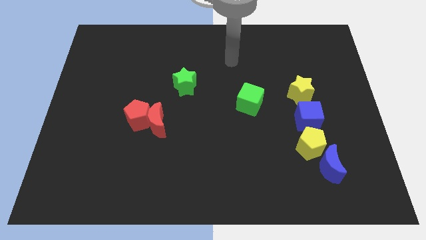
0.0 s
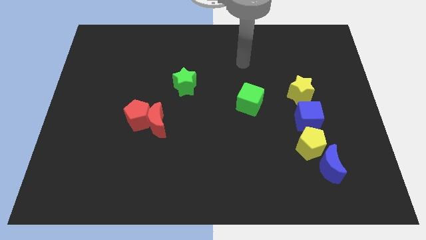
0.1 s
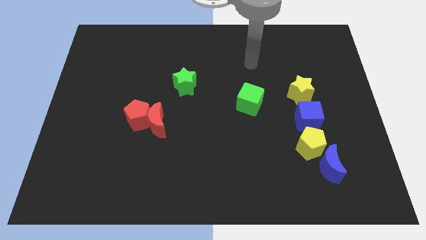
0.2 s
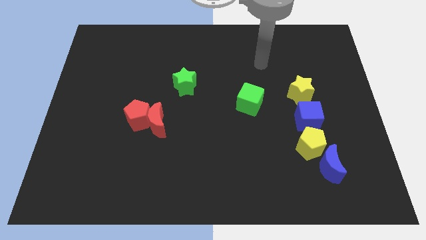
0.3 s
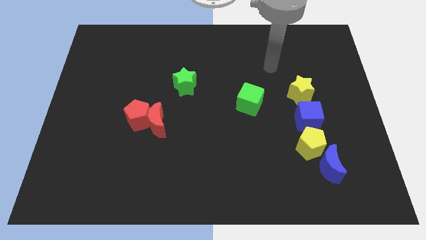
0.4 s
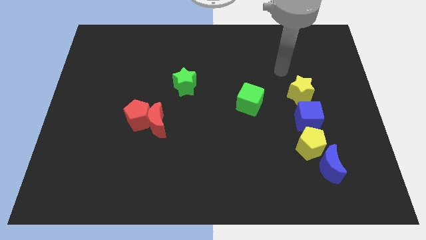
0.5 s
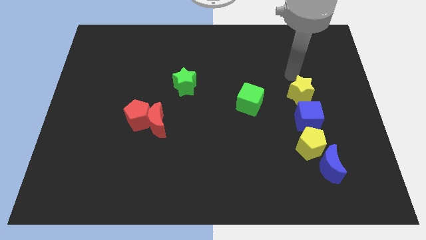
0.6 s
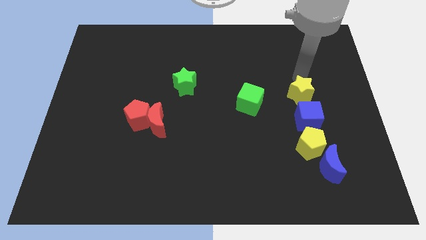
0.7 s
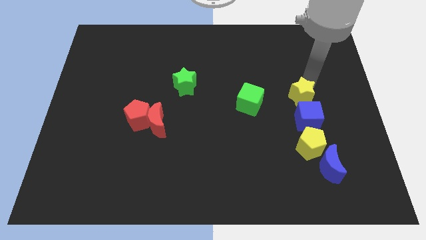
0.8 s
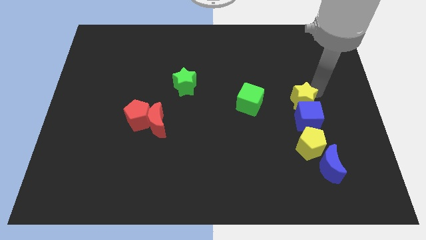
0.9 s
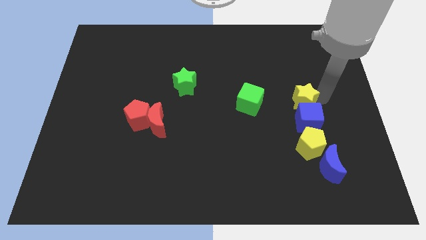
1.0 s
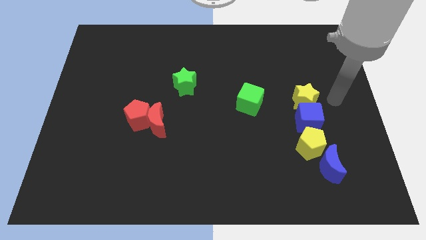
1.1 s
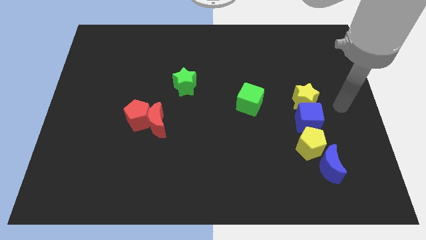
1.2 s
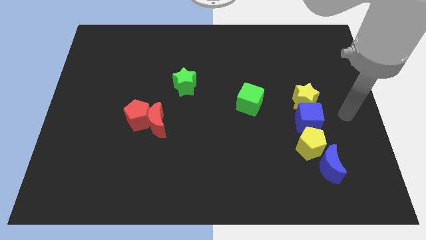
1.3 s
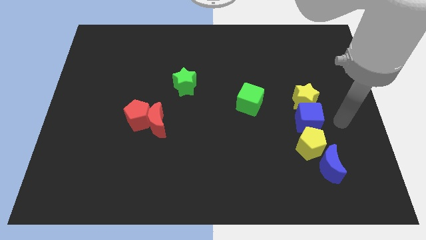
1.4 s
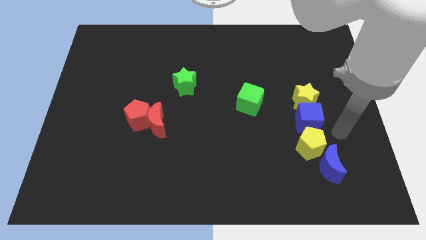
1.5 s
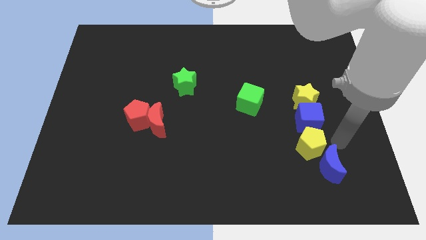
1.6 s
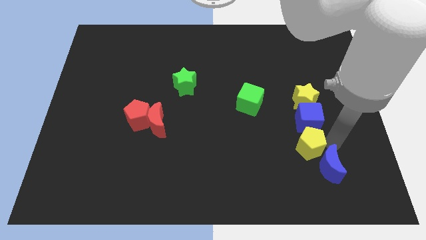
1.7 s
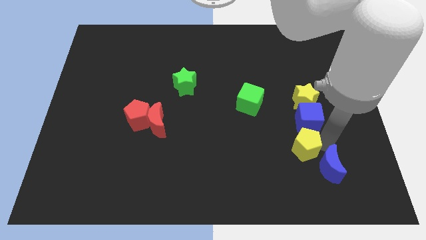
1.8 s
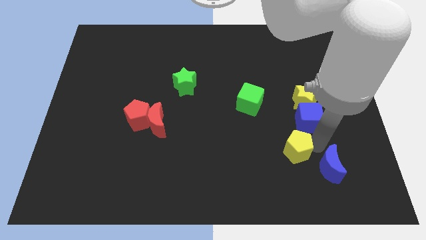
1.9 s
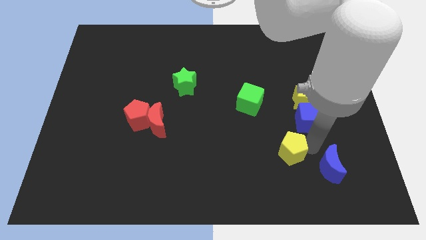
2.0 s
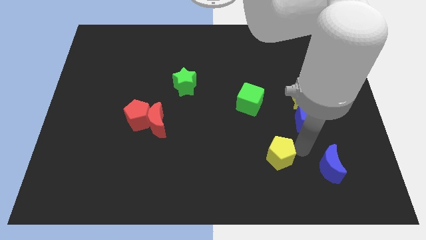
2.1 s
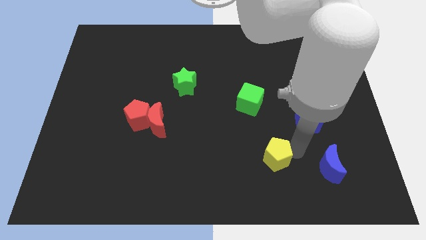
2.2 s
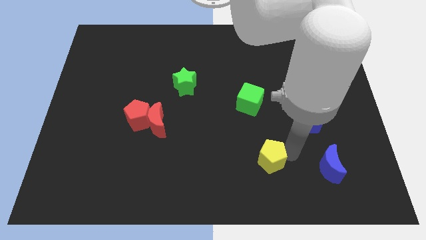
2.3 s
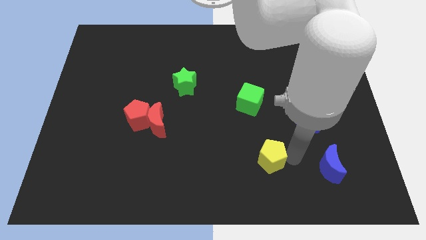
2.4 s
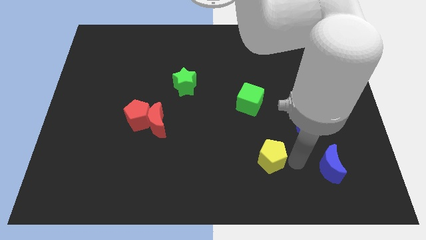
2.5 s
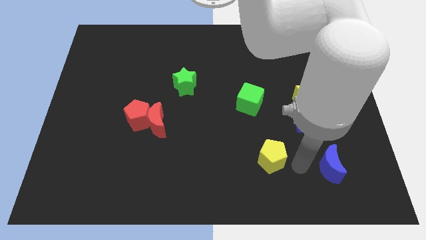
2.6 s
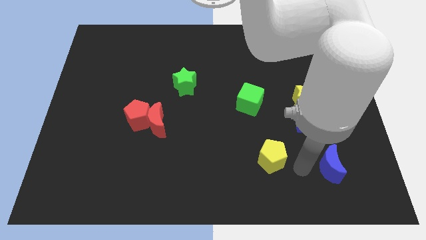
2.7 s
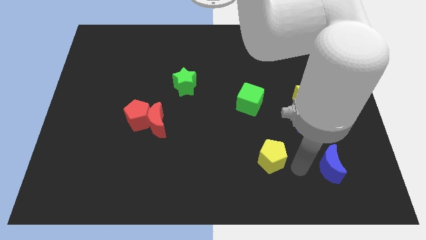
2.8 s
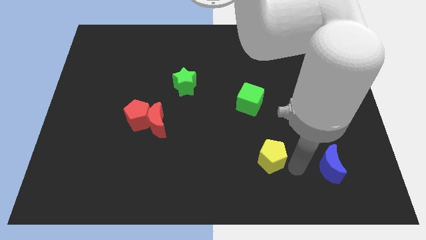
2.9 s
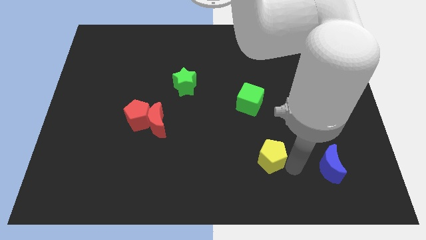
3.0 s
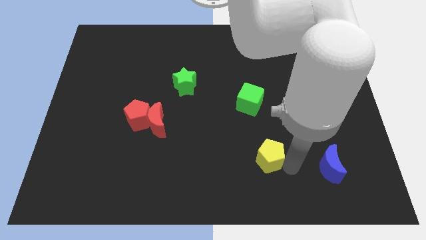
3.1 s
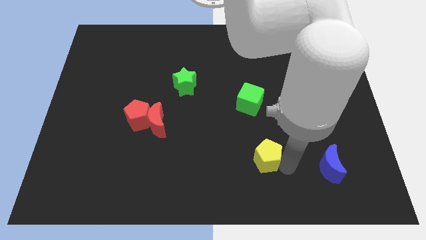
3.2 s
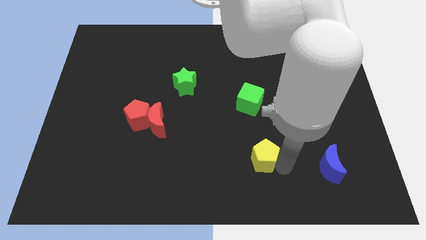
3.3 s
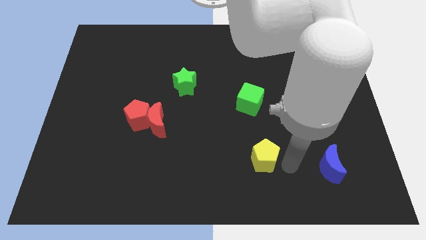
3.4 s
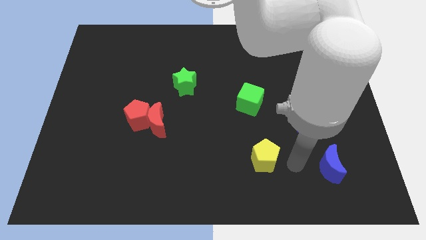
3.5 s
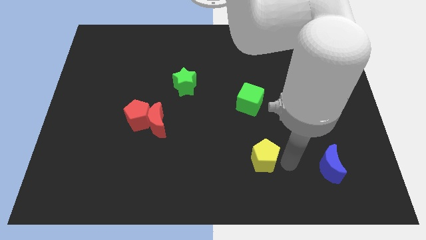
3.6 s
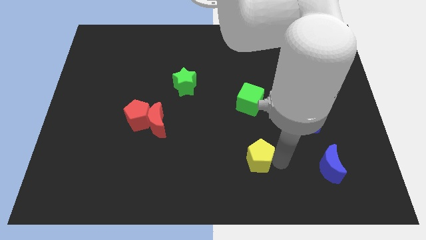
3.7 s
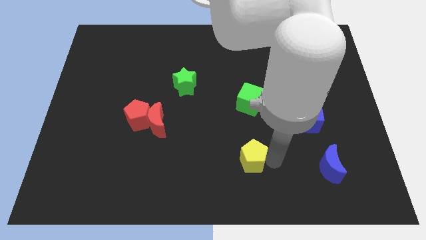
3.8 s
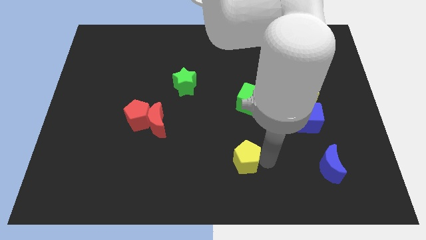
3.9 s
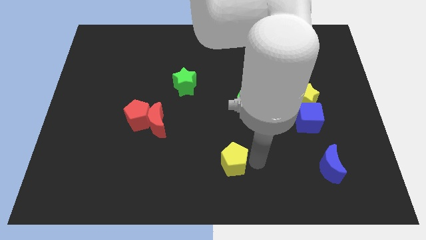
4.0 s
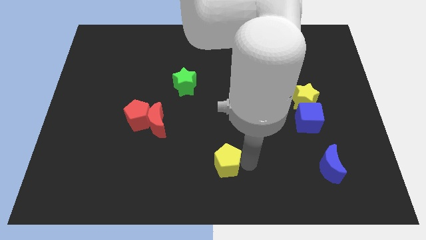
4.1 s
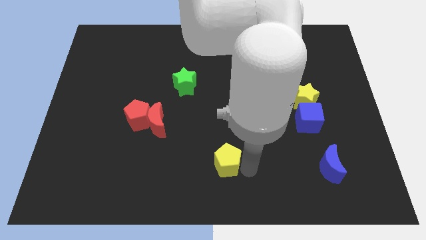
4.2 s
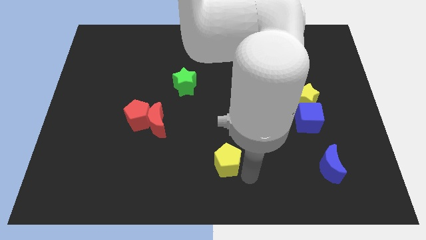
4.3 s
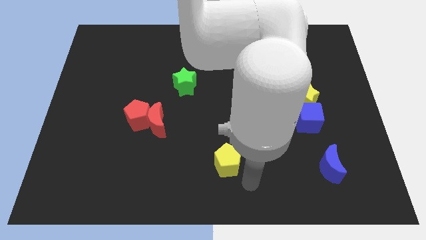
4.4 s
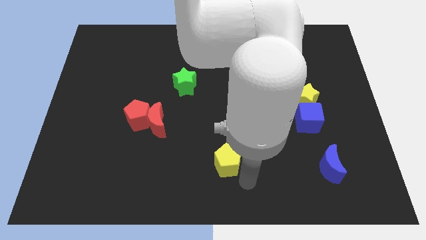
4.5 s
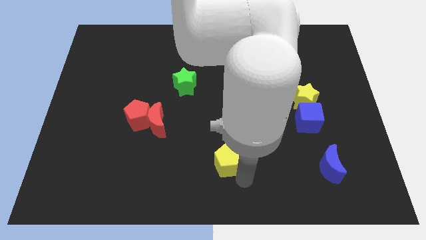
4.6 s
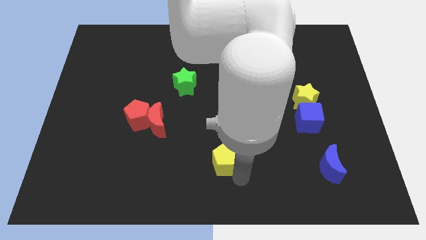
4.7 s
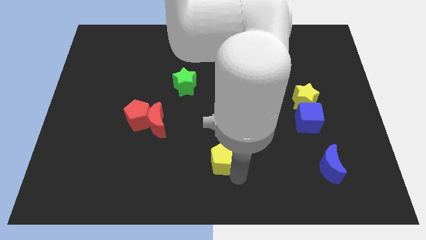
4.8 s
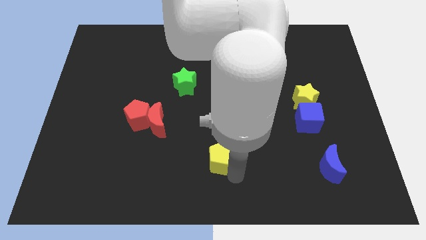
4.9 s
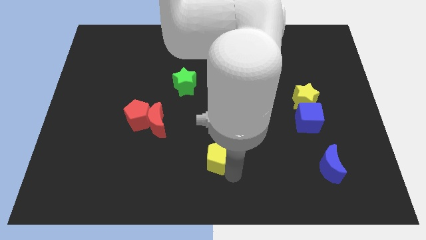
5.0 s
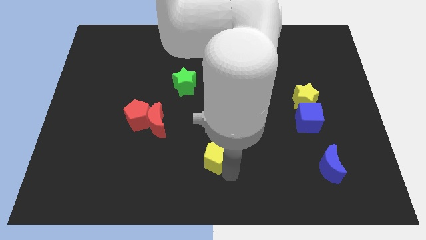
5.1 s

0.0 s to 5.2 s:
slide the yellow pentagon left

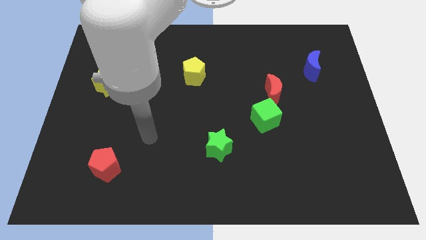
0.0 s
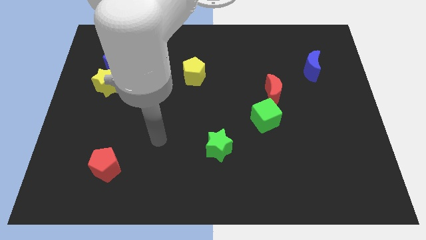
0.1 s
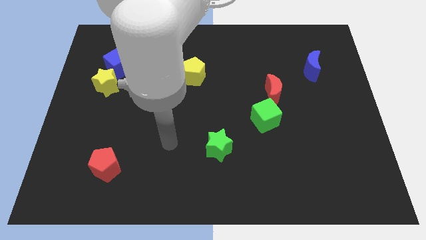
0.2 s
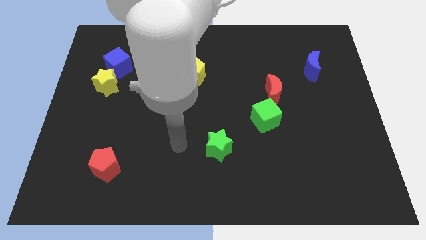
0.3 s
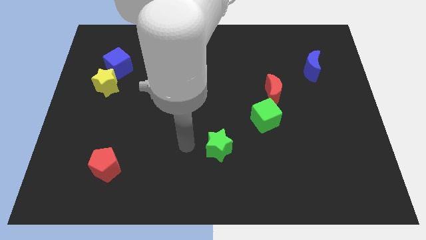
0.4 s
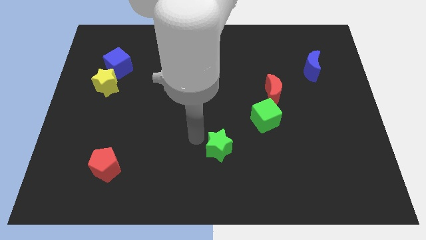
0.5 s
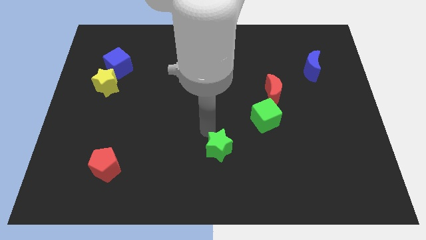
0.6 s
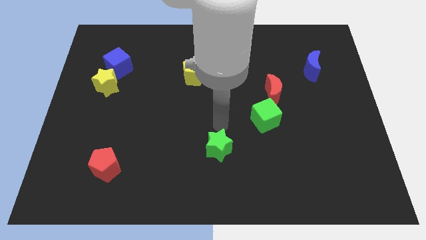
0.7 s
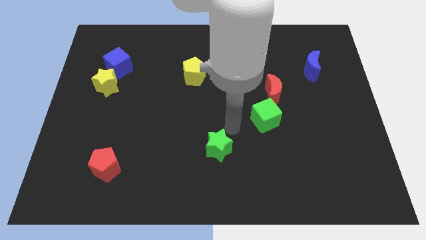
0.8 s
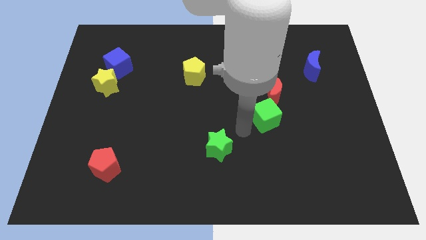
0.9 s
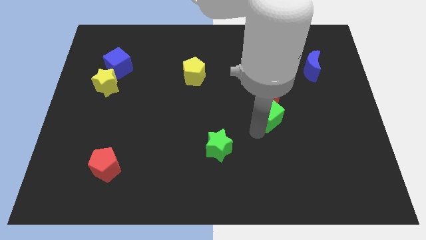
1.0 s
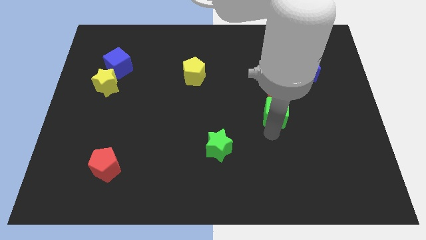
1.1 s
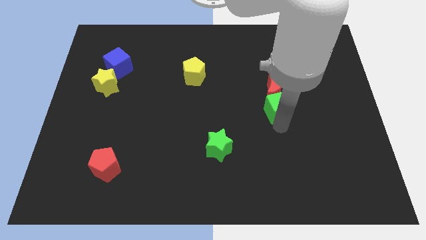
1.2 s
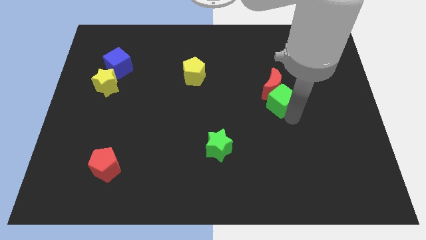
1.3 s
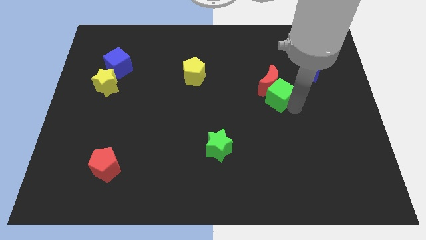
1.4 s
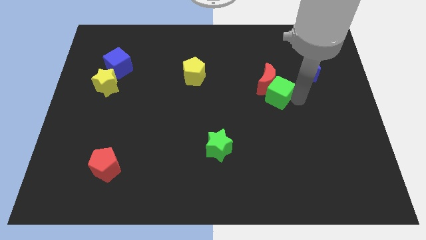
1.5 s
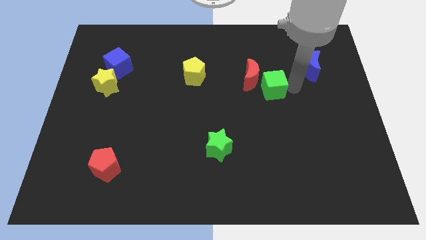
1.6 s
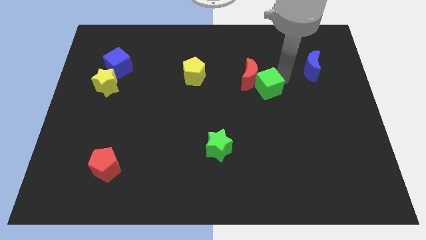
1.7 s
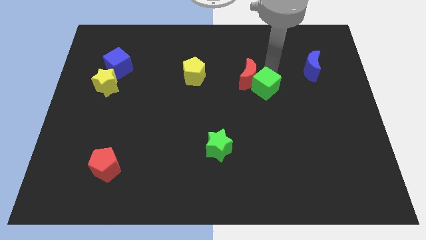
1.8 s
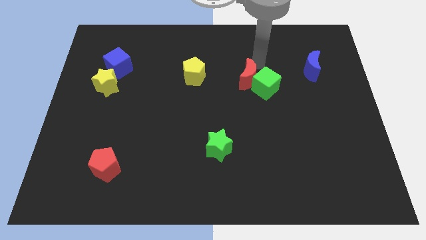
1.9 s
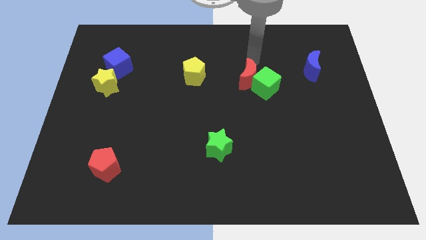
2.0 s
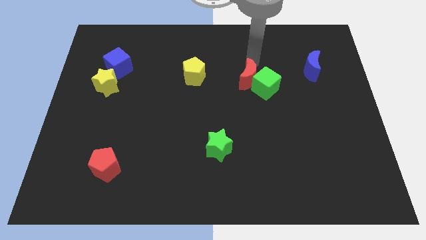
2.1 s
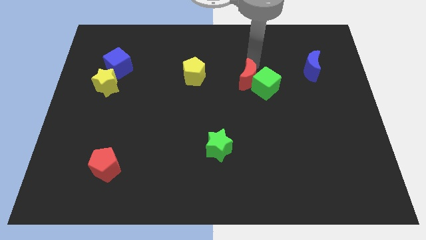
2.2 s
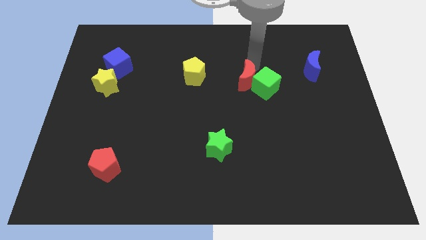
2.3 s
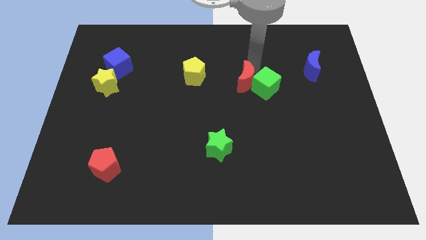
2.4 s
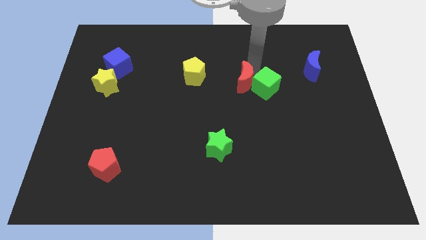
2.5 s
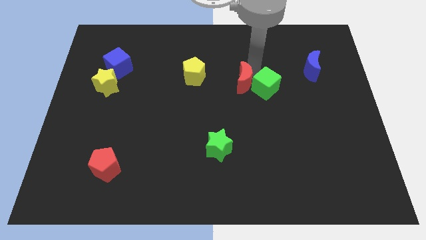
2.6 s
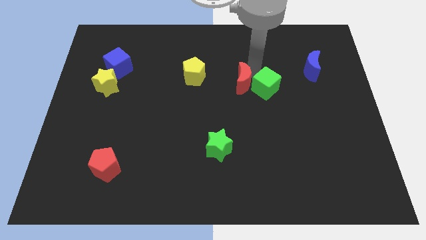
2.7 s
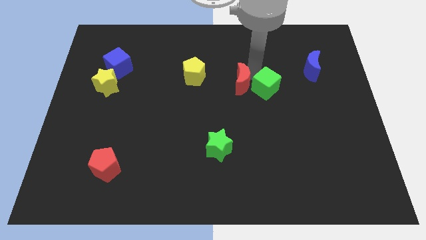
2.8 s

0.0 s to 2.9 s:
move the red moon left a little bit
